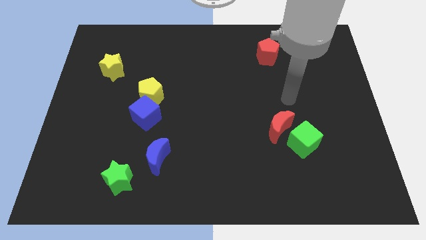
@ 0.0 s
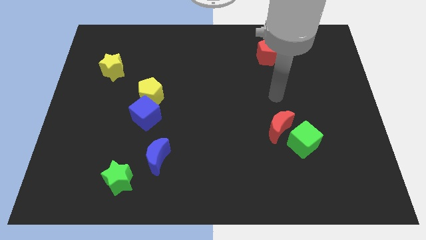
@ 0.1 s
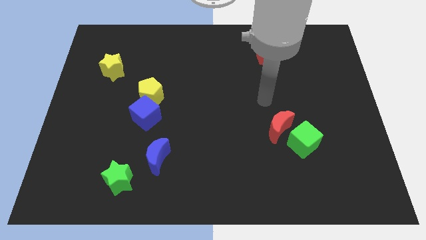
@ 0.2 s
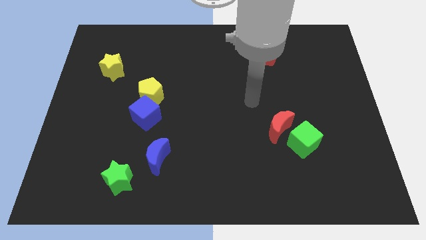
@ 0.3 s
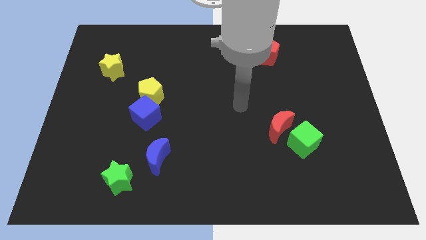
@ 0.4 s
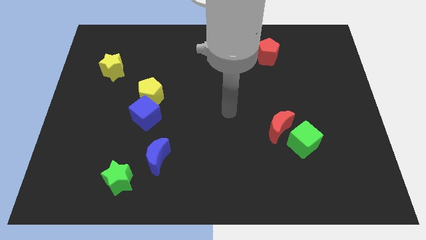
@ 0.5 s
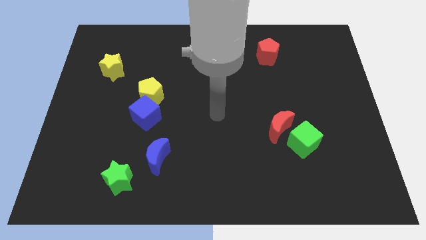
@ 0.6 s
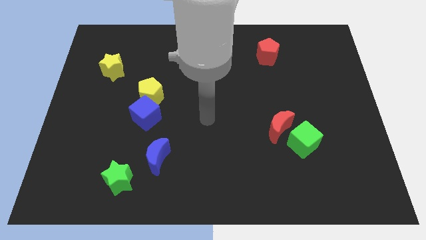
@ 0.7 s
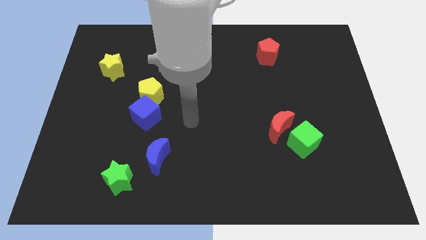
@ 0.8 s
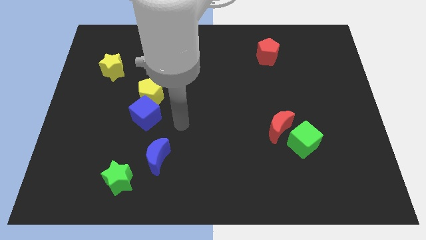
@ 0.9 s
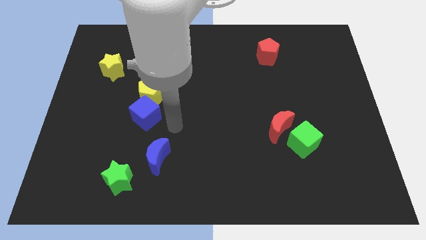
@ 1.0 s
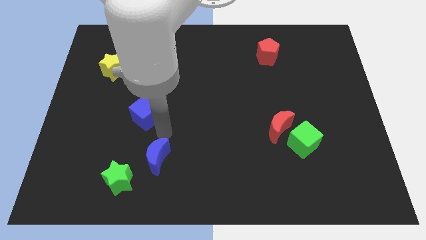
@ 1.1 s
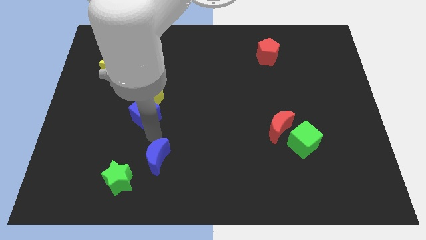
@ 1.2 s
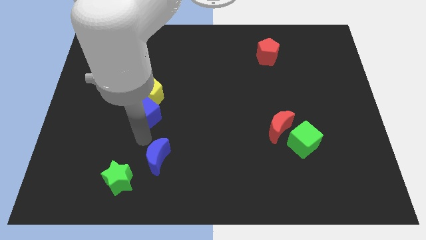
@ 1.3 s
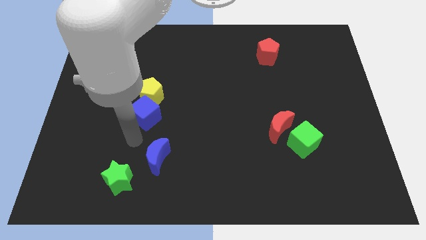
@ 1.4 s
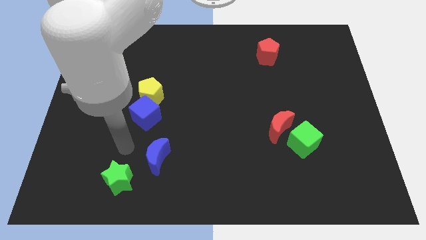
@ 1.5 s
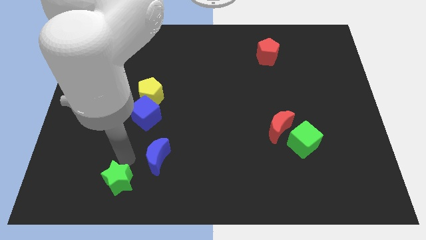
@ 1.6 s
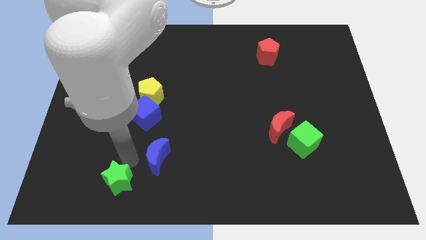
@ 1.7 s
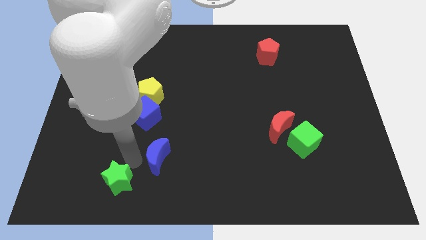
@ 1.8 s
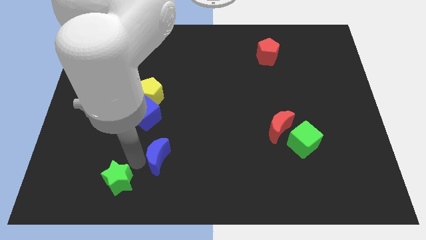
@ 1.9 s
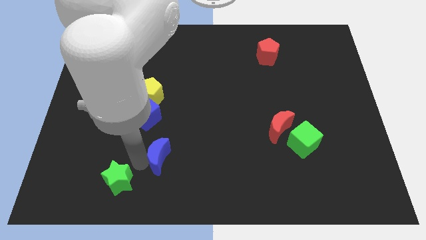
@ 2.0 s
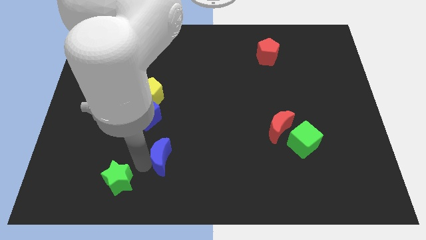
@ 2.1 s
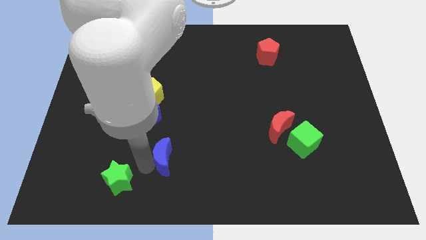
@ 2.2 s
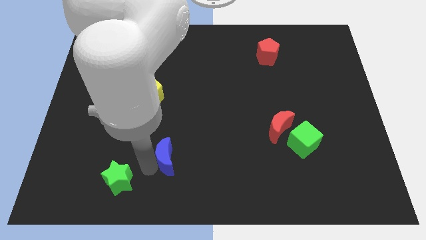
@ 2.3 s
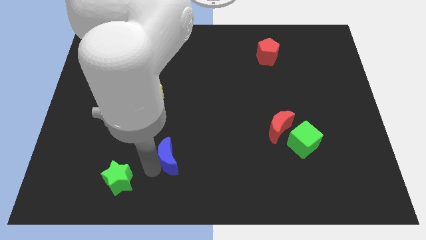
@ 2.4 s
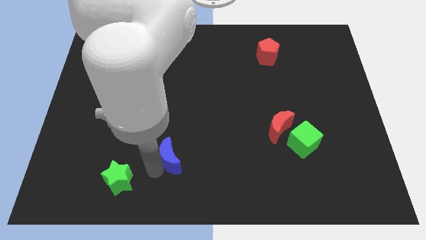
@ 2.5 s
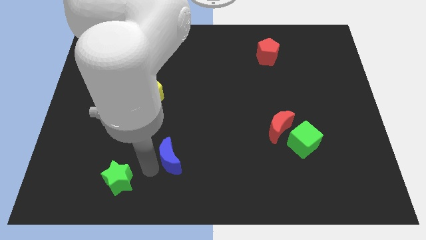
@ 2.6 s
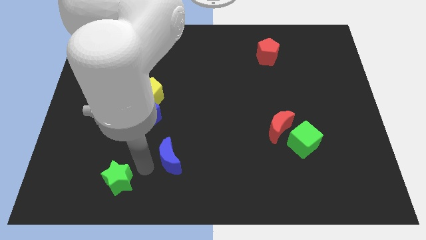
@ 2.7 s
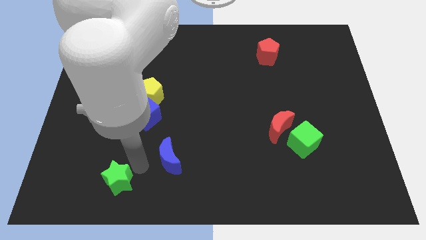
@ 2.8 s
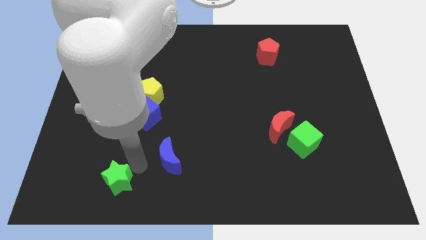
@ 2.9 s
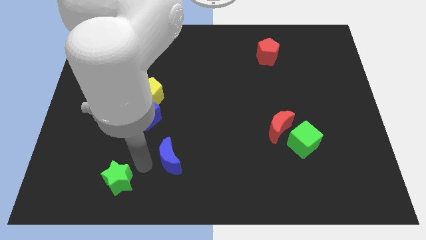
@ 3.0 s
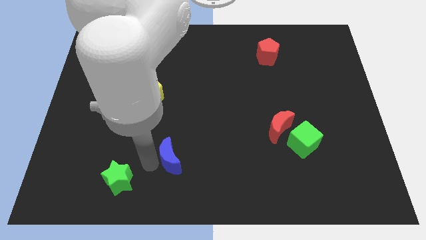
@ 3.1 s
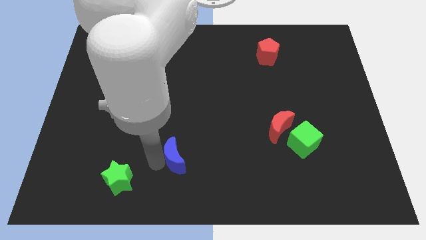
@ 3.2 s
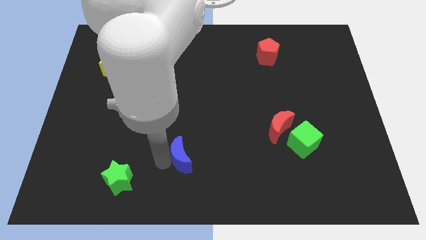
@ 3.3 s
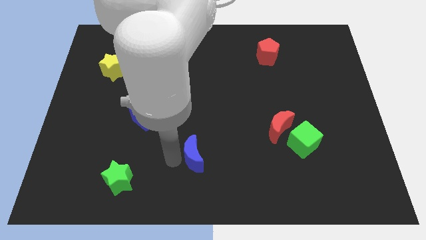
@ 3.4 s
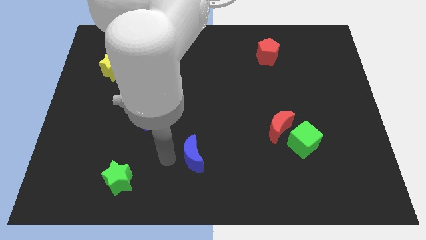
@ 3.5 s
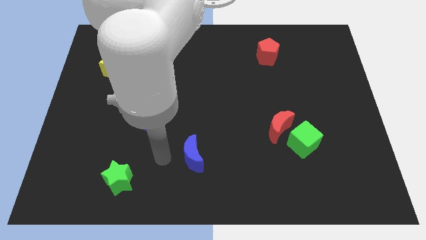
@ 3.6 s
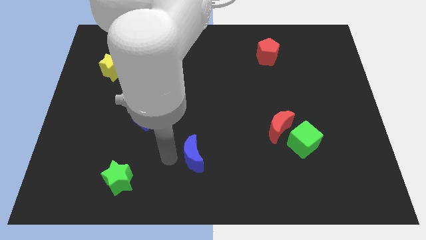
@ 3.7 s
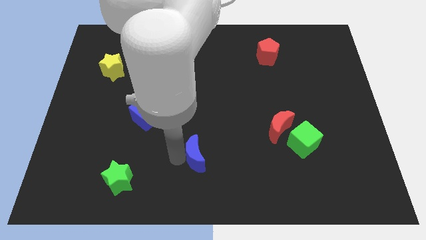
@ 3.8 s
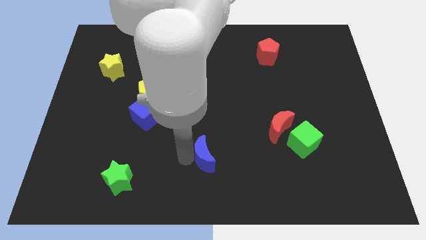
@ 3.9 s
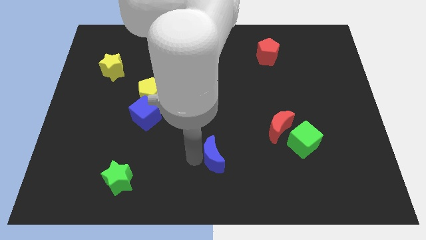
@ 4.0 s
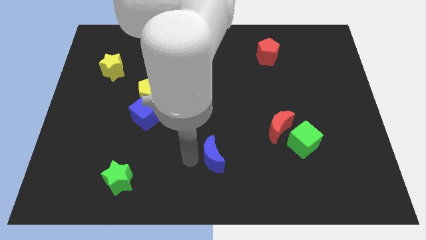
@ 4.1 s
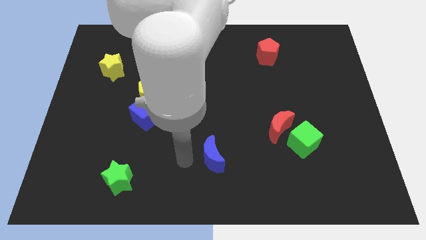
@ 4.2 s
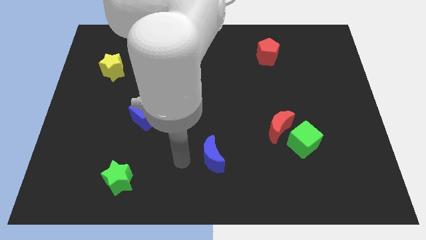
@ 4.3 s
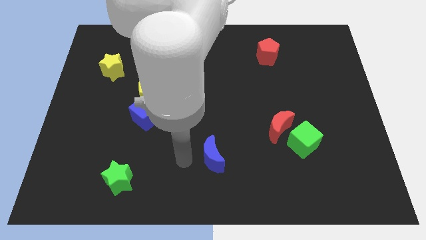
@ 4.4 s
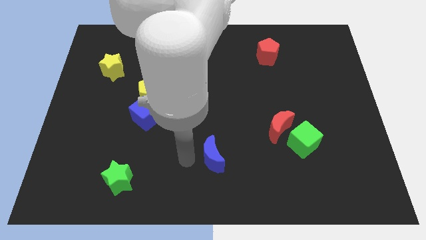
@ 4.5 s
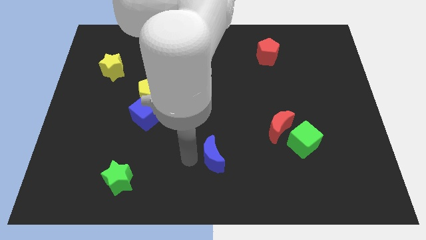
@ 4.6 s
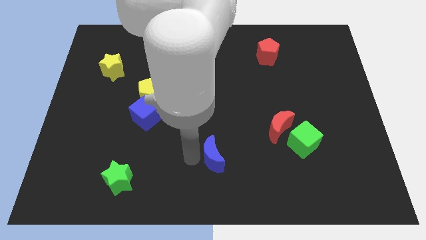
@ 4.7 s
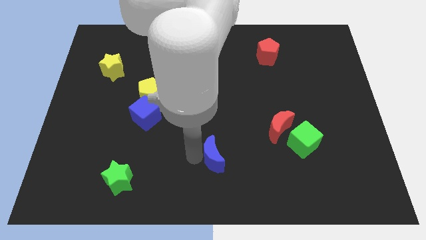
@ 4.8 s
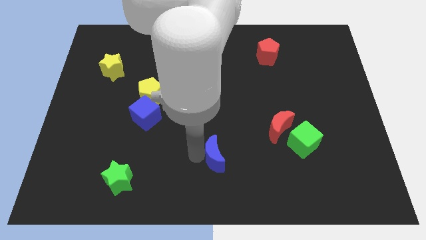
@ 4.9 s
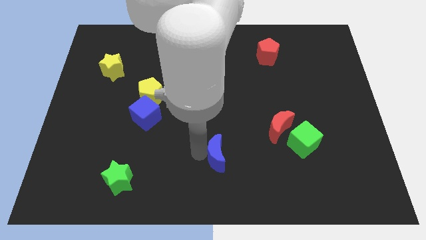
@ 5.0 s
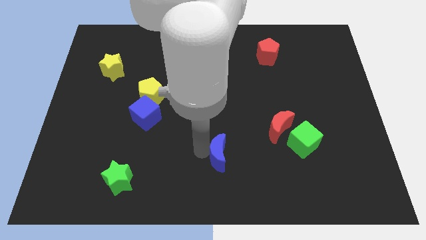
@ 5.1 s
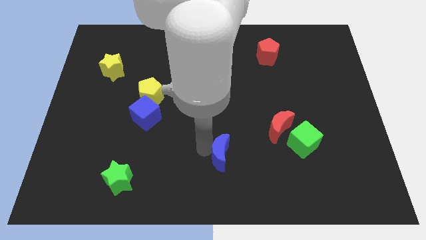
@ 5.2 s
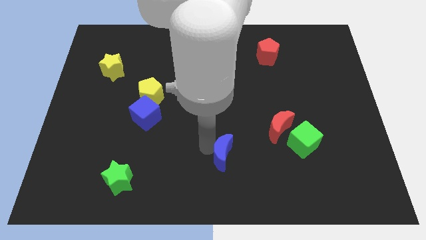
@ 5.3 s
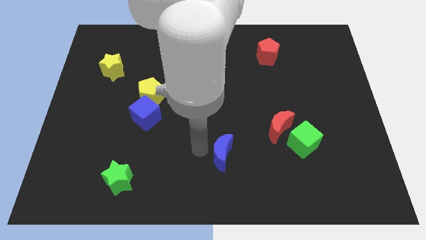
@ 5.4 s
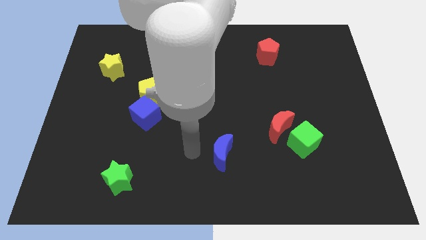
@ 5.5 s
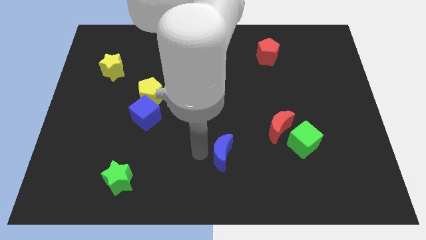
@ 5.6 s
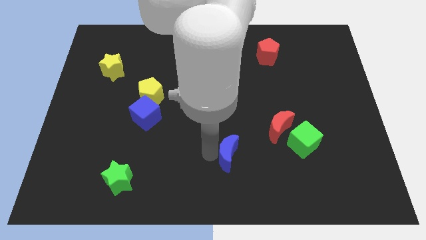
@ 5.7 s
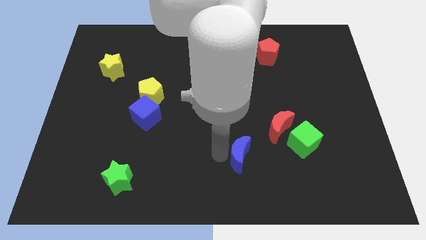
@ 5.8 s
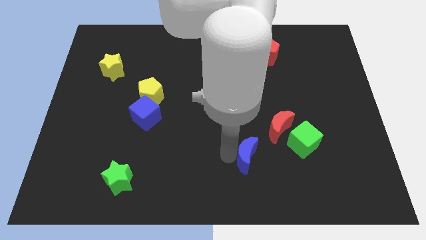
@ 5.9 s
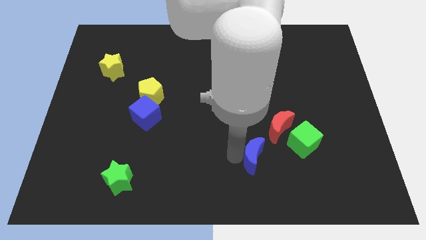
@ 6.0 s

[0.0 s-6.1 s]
move the blue moon to the right

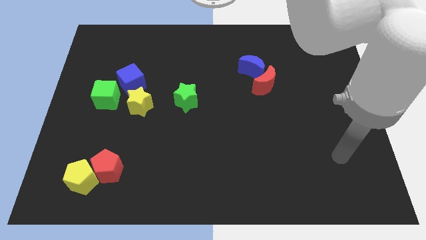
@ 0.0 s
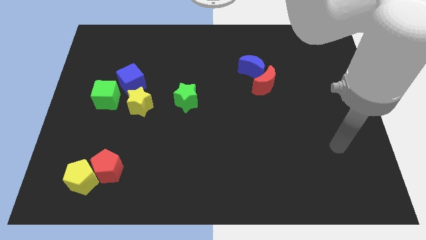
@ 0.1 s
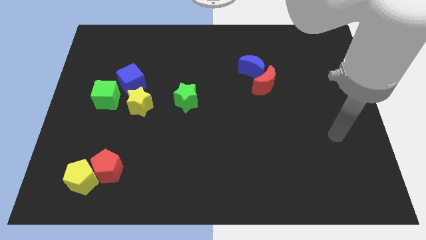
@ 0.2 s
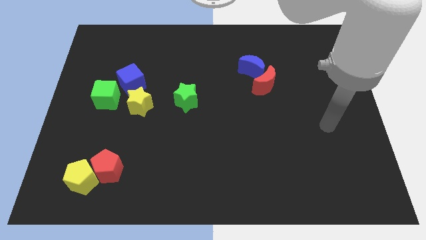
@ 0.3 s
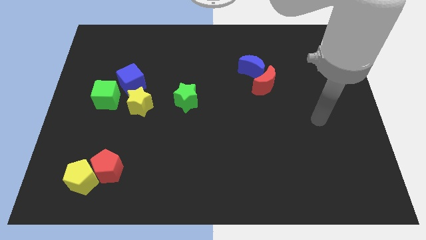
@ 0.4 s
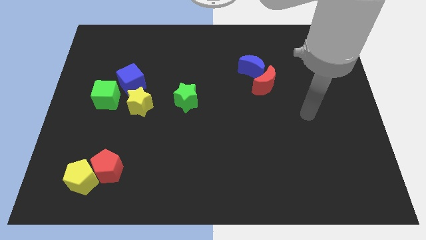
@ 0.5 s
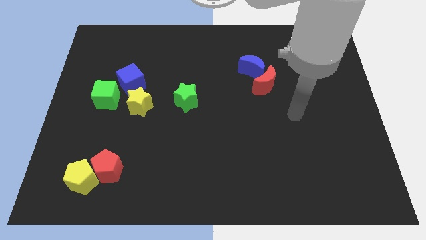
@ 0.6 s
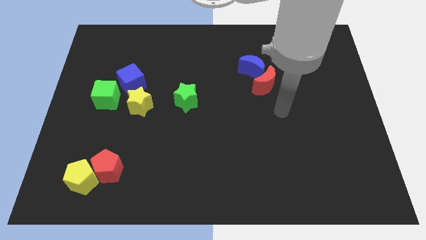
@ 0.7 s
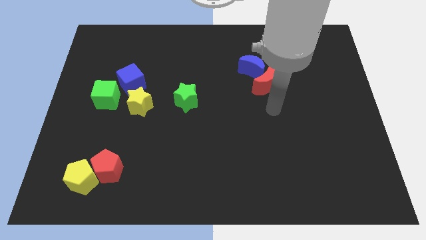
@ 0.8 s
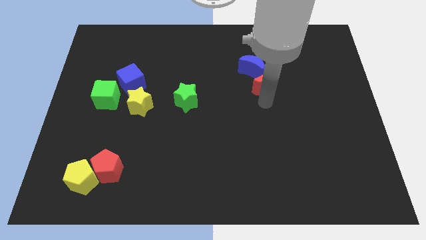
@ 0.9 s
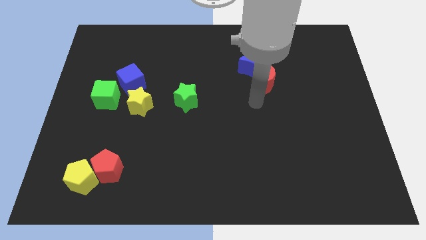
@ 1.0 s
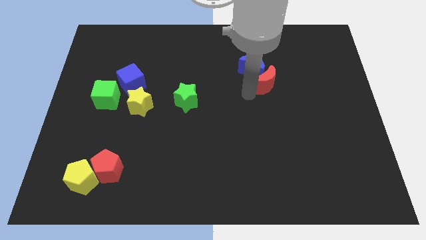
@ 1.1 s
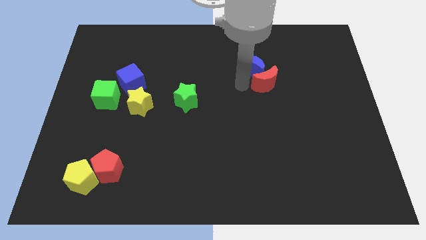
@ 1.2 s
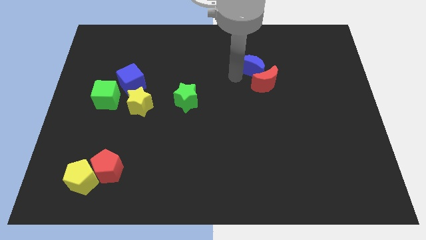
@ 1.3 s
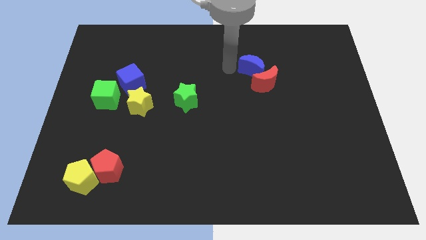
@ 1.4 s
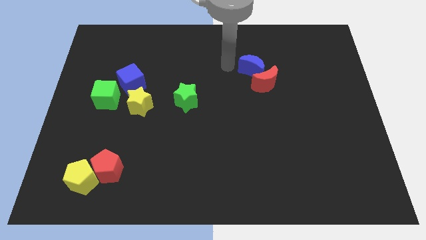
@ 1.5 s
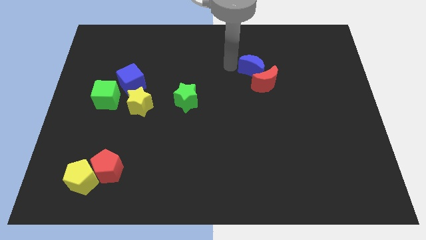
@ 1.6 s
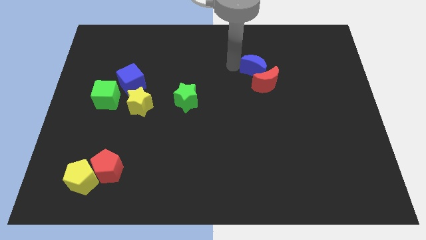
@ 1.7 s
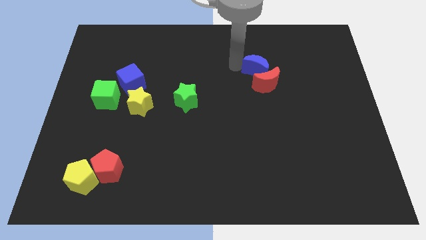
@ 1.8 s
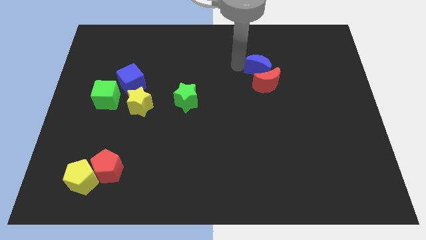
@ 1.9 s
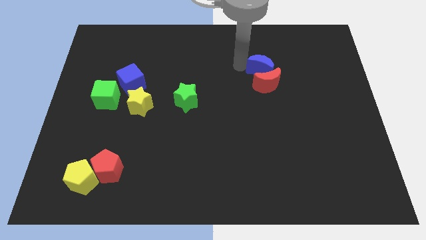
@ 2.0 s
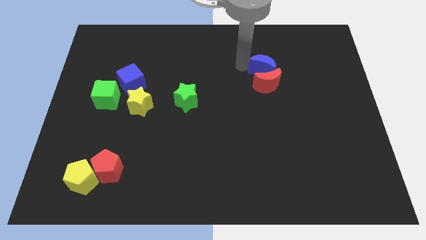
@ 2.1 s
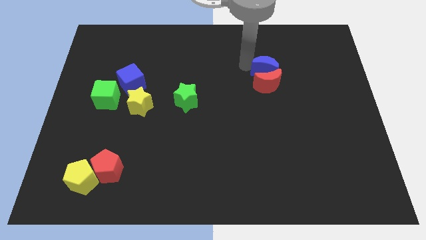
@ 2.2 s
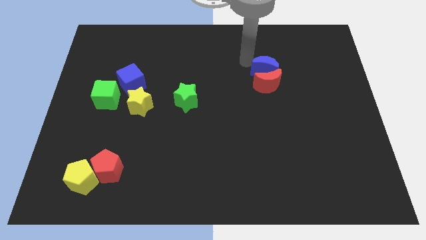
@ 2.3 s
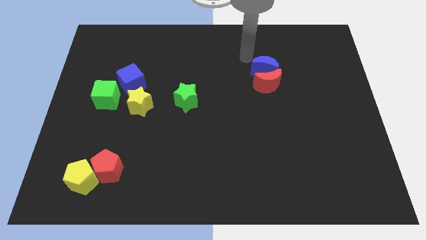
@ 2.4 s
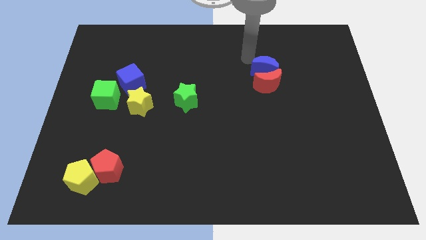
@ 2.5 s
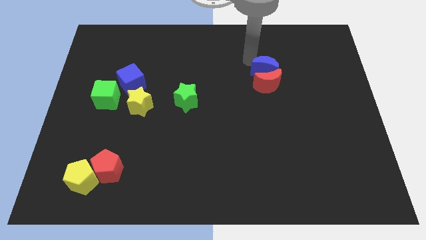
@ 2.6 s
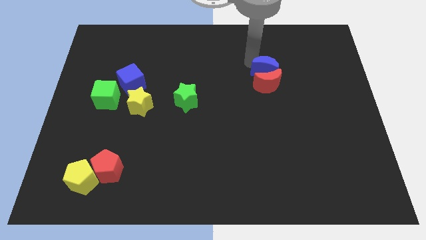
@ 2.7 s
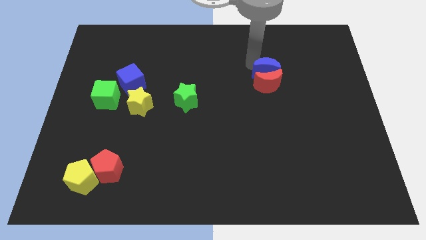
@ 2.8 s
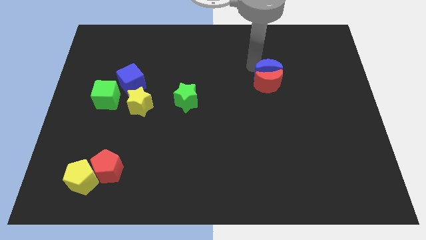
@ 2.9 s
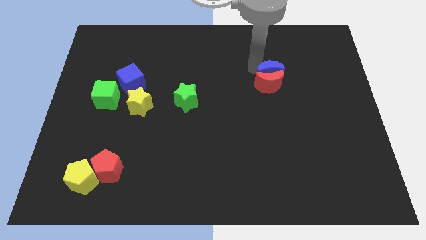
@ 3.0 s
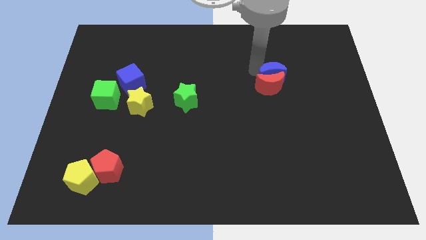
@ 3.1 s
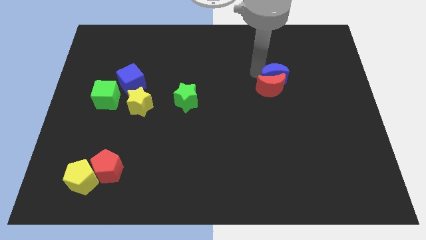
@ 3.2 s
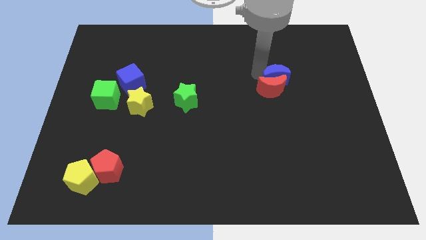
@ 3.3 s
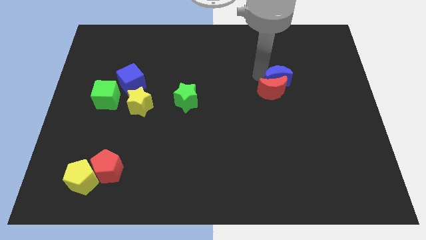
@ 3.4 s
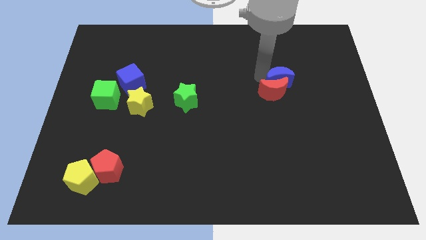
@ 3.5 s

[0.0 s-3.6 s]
move the blue moon a little bit down and then to the right
